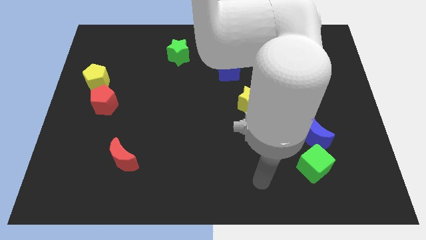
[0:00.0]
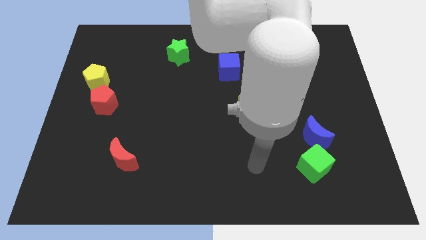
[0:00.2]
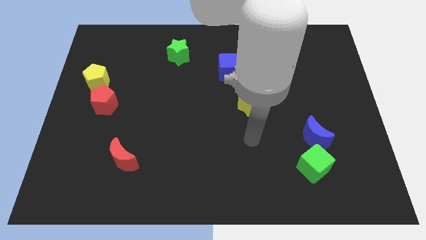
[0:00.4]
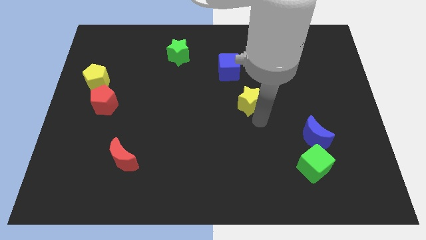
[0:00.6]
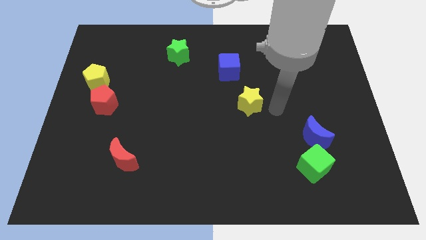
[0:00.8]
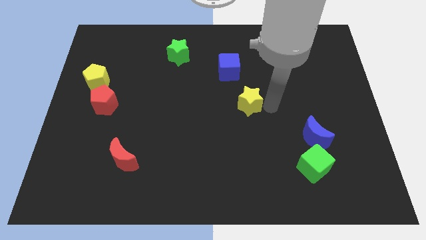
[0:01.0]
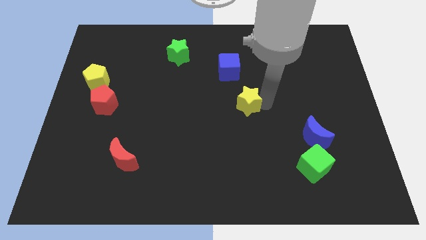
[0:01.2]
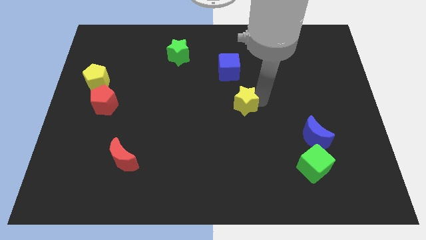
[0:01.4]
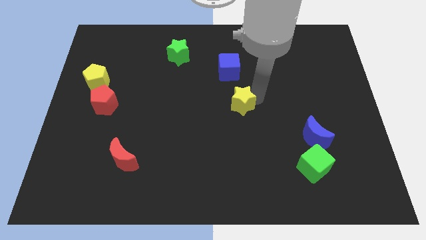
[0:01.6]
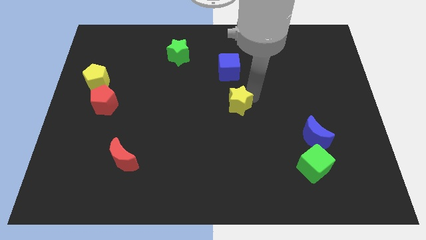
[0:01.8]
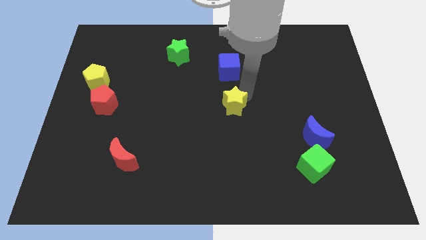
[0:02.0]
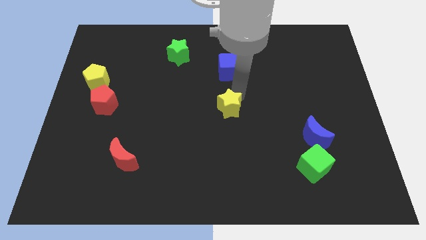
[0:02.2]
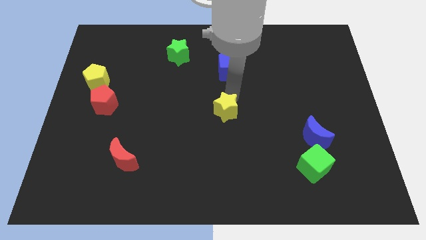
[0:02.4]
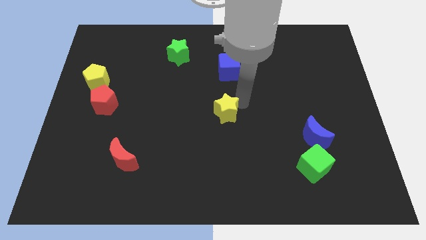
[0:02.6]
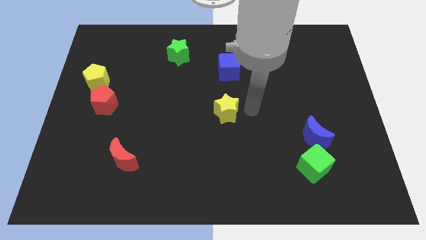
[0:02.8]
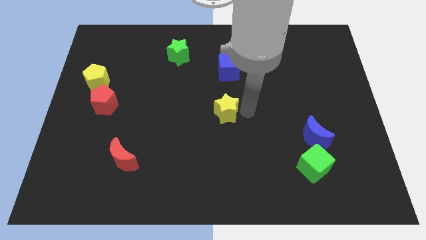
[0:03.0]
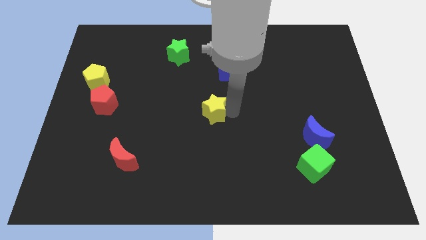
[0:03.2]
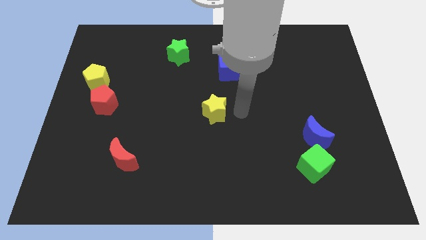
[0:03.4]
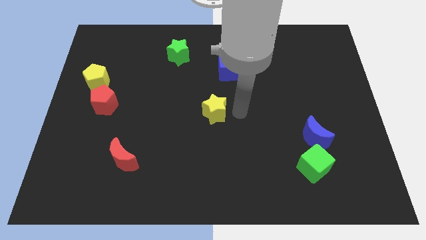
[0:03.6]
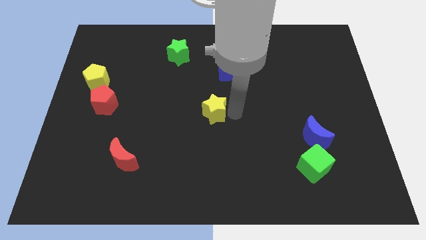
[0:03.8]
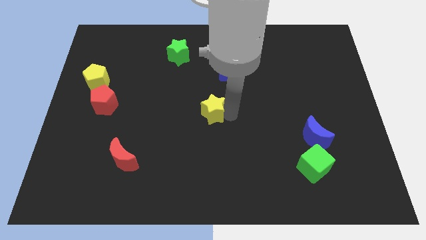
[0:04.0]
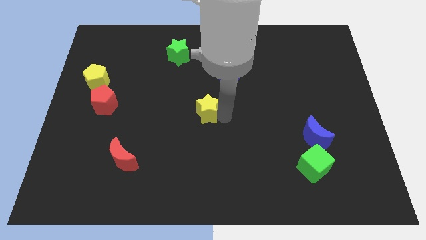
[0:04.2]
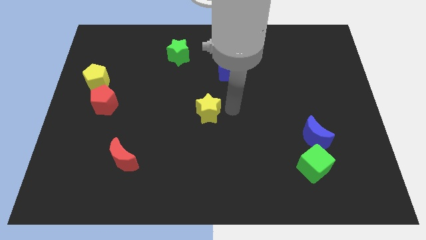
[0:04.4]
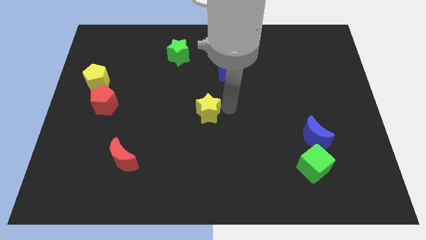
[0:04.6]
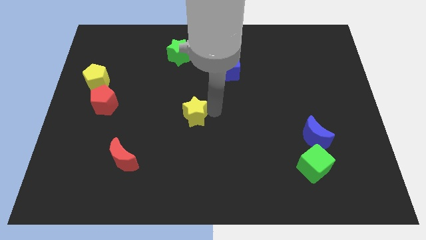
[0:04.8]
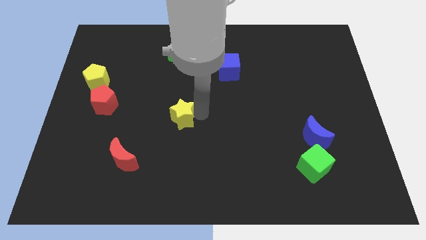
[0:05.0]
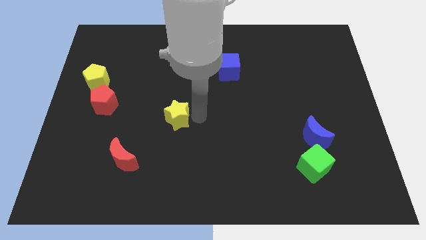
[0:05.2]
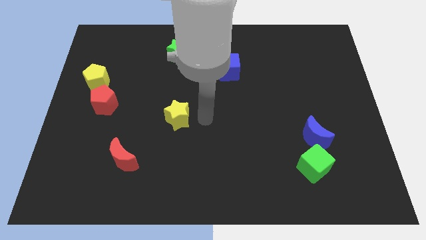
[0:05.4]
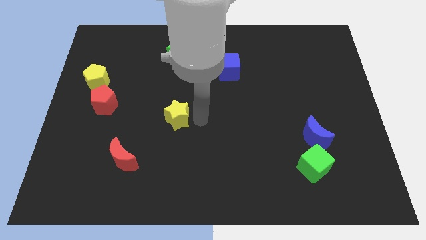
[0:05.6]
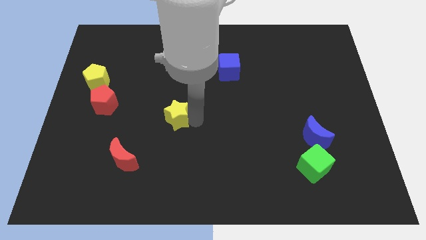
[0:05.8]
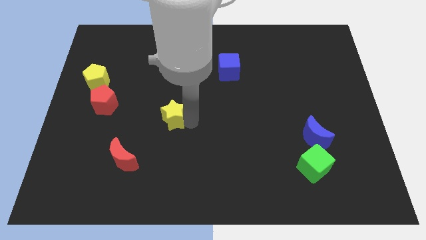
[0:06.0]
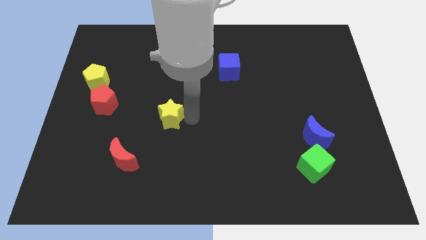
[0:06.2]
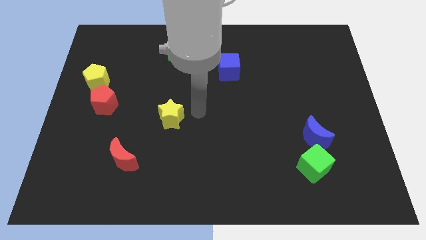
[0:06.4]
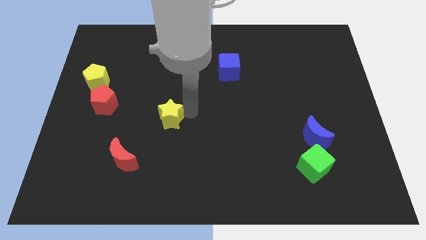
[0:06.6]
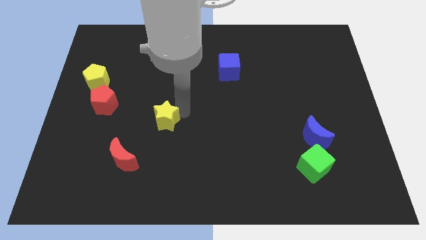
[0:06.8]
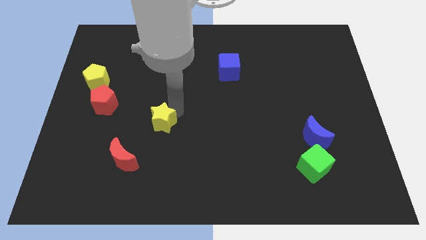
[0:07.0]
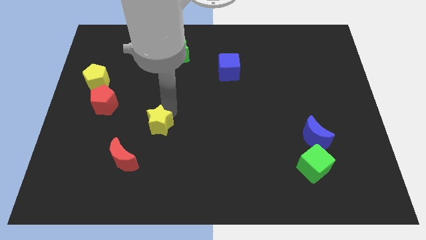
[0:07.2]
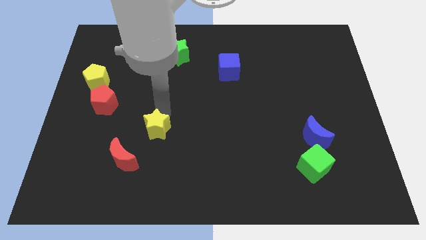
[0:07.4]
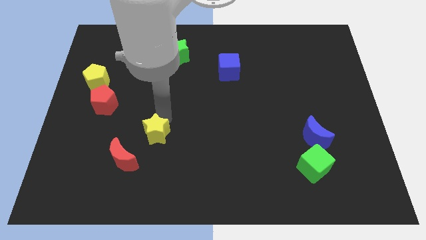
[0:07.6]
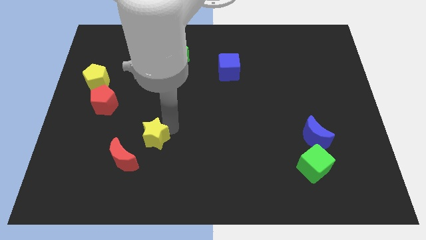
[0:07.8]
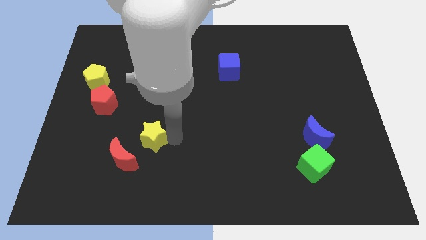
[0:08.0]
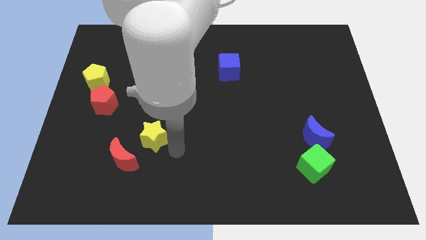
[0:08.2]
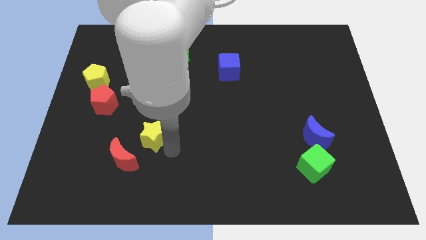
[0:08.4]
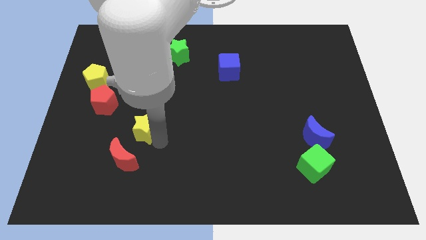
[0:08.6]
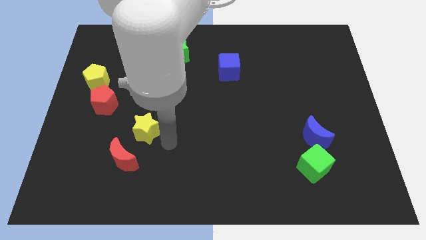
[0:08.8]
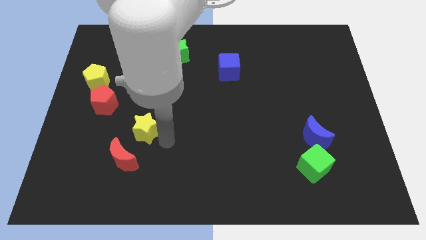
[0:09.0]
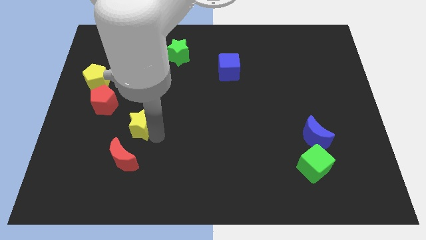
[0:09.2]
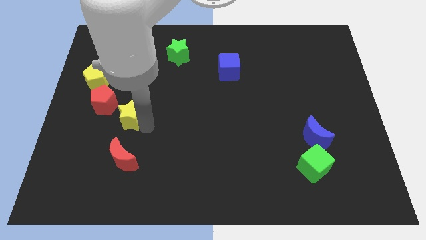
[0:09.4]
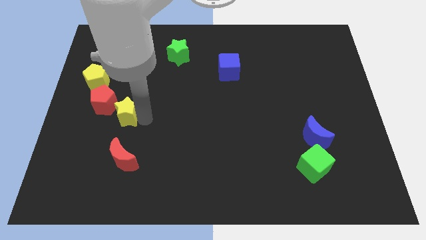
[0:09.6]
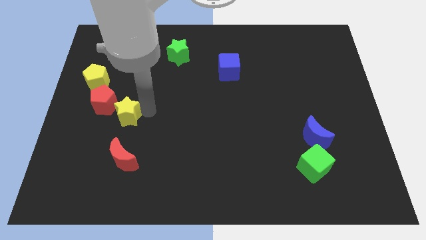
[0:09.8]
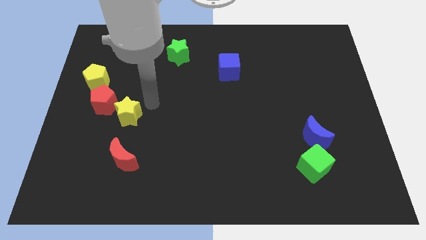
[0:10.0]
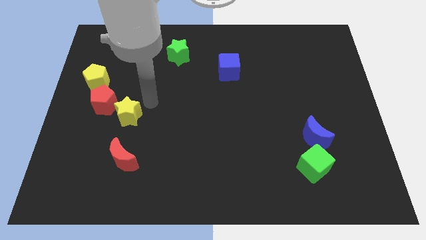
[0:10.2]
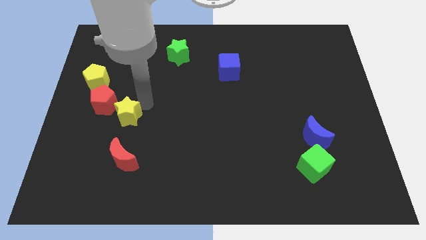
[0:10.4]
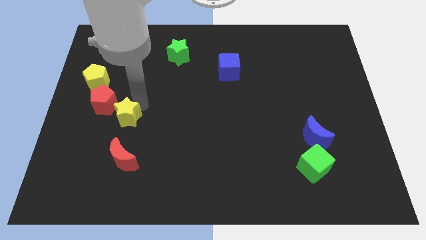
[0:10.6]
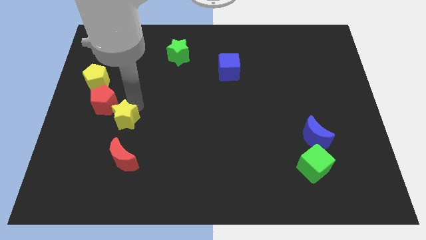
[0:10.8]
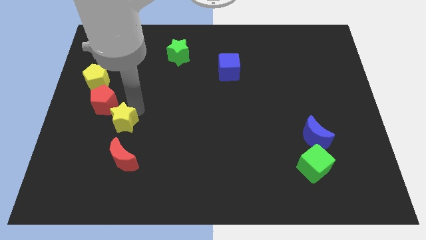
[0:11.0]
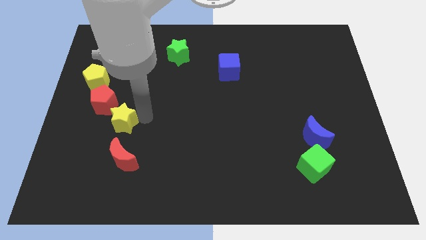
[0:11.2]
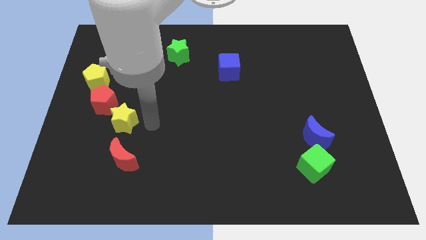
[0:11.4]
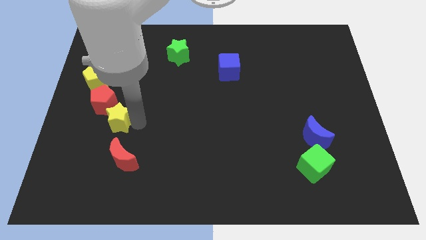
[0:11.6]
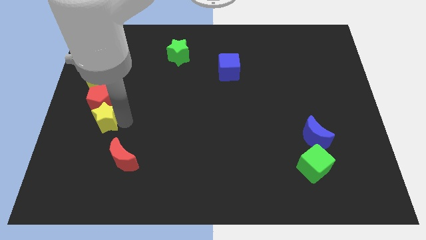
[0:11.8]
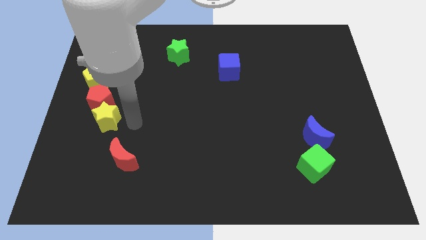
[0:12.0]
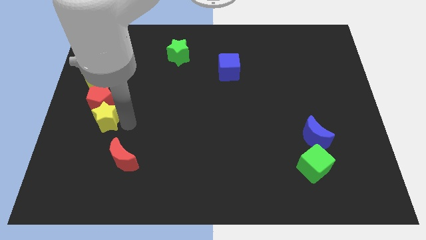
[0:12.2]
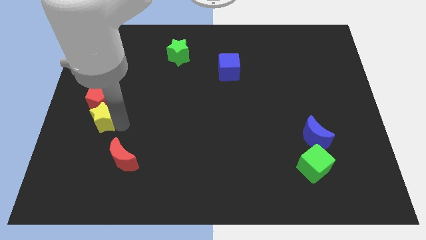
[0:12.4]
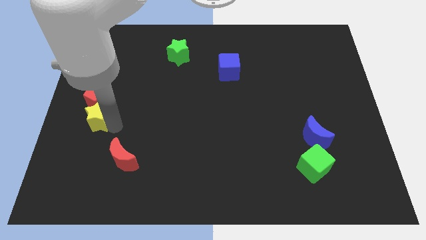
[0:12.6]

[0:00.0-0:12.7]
move the yellow star to the center left
